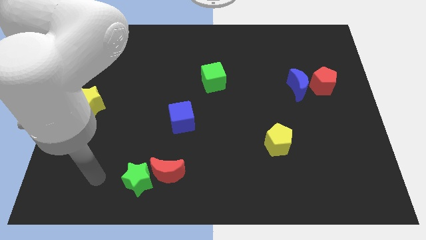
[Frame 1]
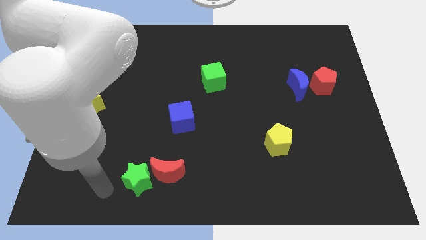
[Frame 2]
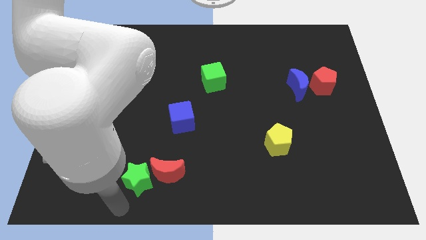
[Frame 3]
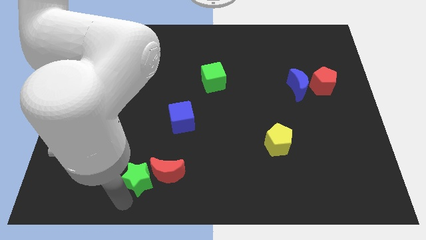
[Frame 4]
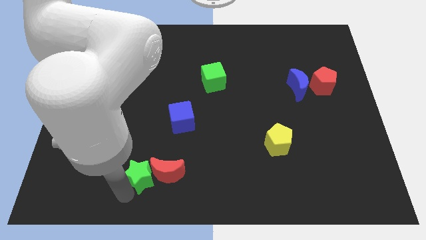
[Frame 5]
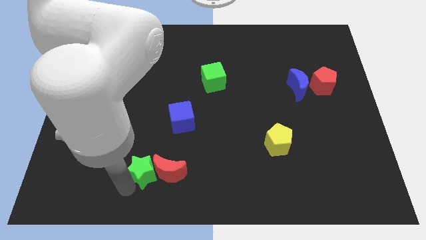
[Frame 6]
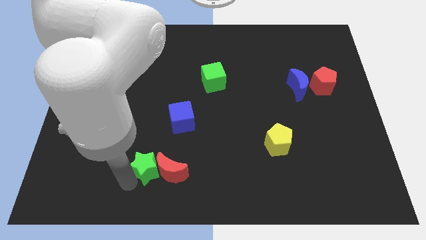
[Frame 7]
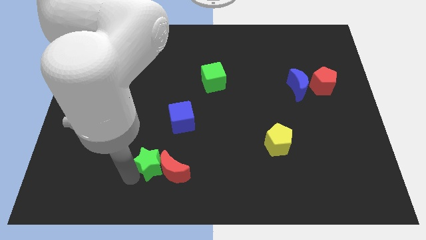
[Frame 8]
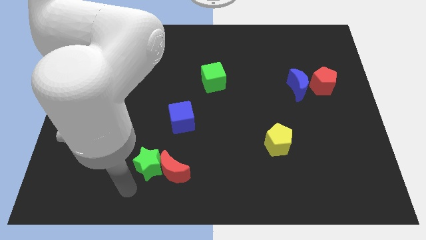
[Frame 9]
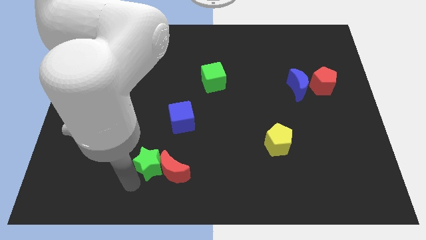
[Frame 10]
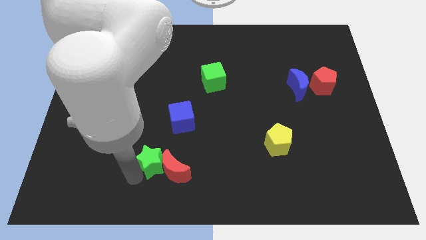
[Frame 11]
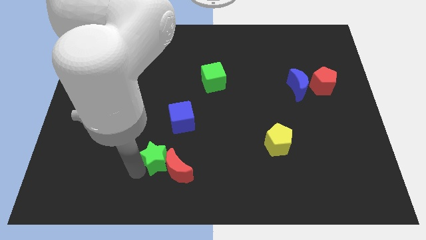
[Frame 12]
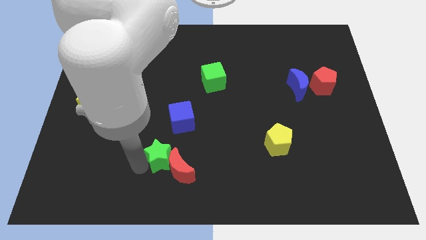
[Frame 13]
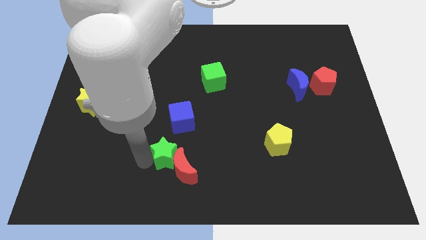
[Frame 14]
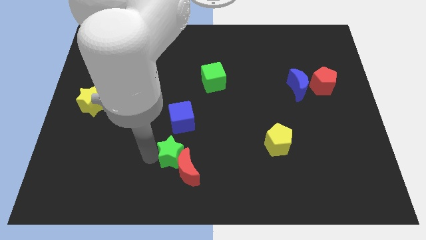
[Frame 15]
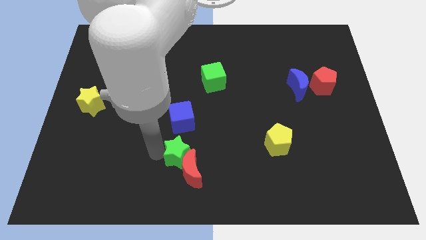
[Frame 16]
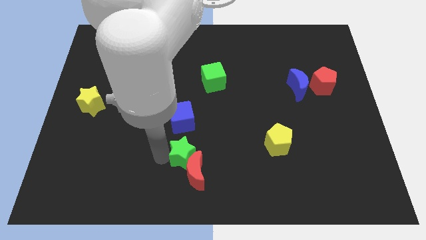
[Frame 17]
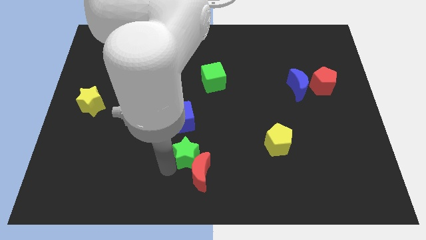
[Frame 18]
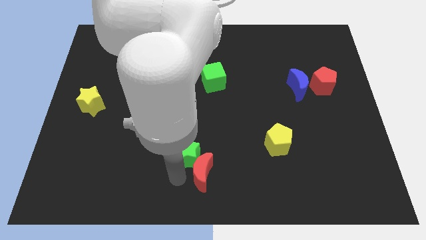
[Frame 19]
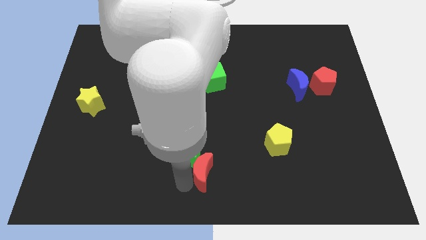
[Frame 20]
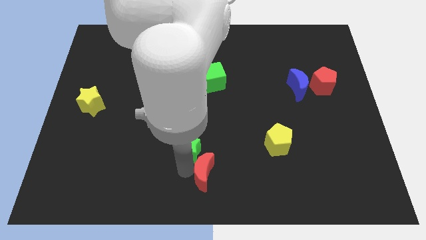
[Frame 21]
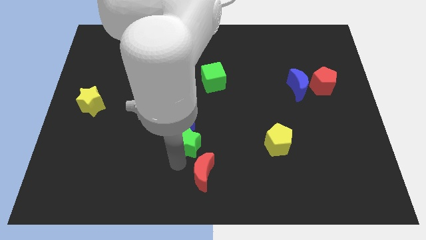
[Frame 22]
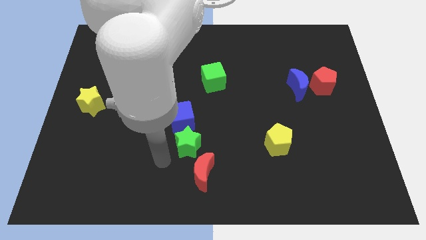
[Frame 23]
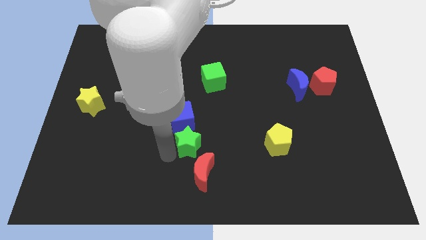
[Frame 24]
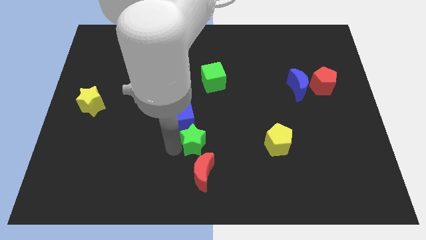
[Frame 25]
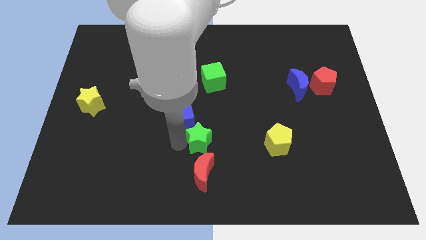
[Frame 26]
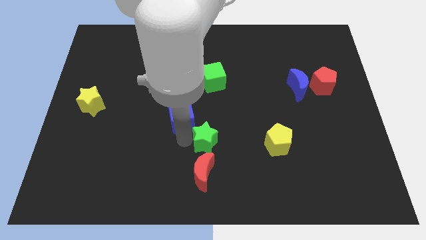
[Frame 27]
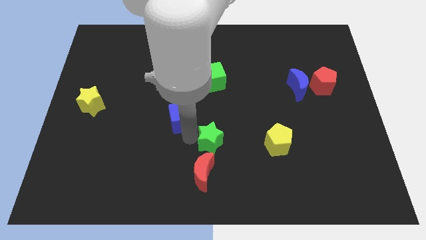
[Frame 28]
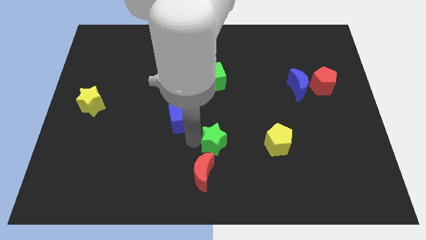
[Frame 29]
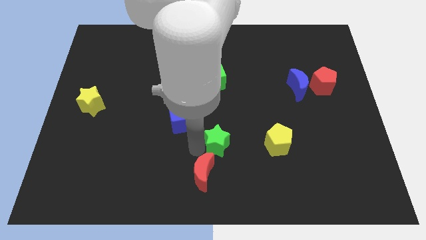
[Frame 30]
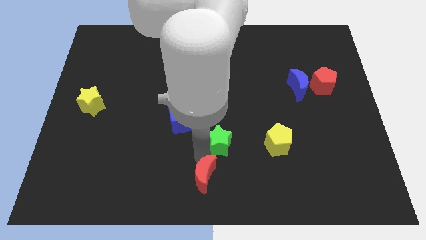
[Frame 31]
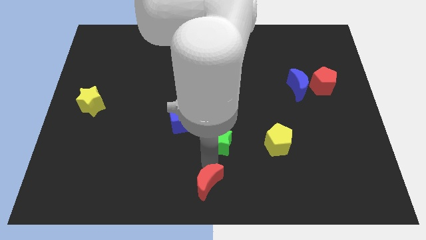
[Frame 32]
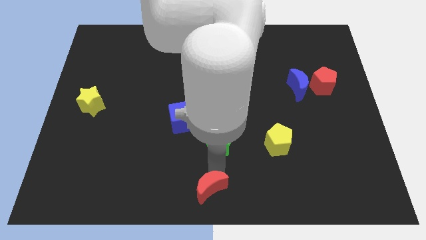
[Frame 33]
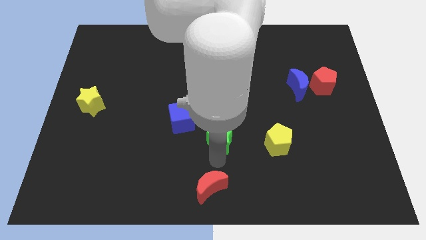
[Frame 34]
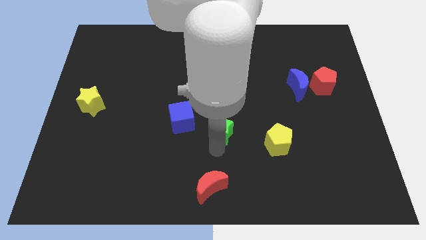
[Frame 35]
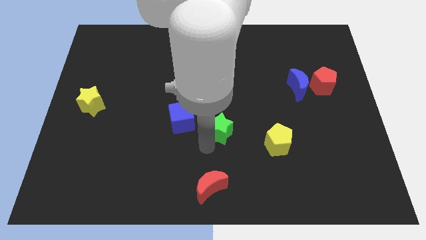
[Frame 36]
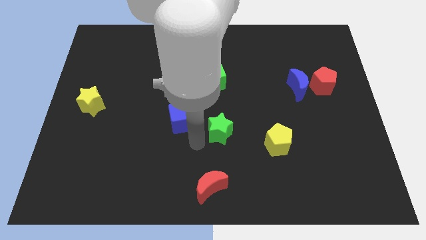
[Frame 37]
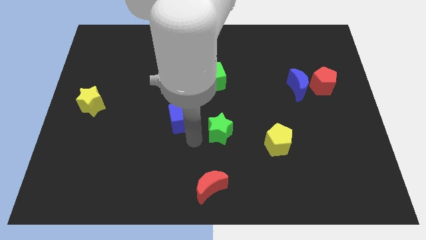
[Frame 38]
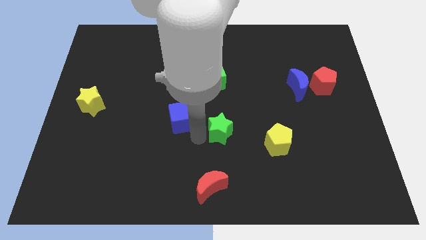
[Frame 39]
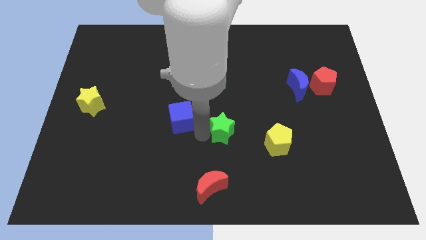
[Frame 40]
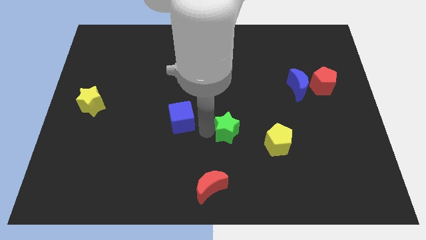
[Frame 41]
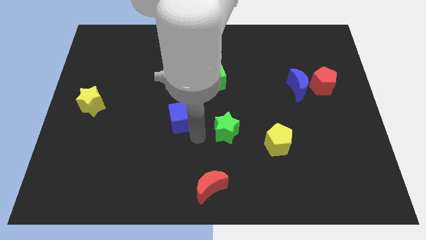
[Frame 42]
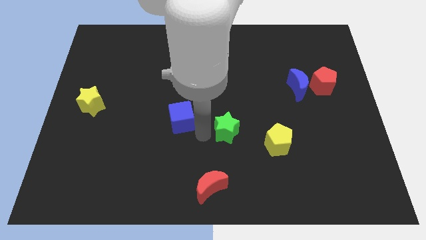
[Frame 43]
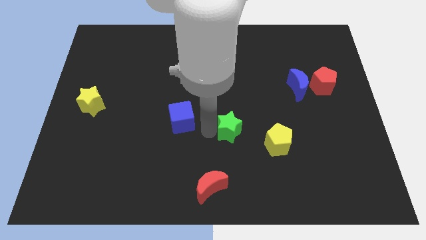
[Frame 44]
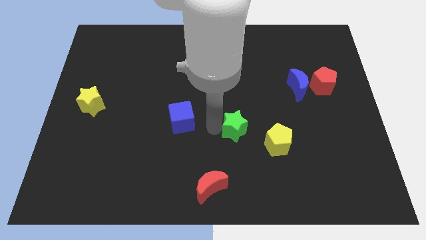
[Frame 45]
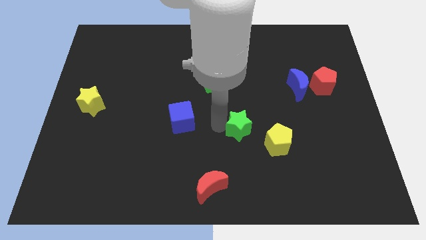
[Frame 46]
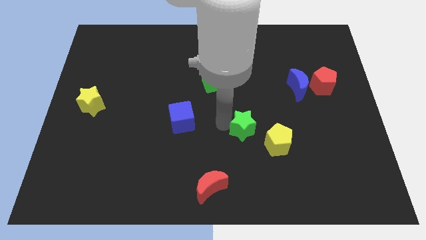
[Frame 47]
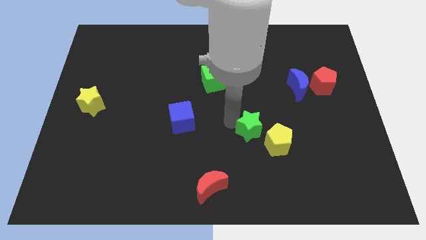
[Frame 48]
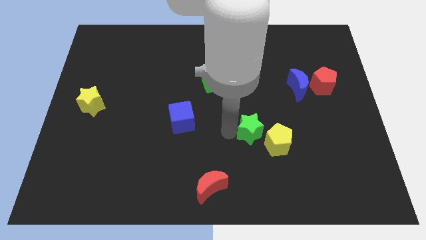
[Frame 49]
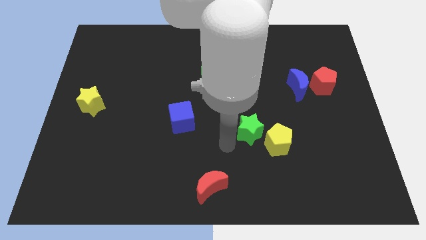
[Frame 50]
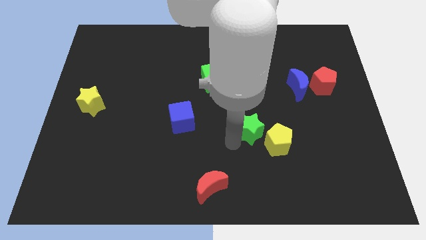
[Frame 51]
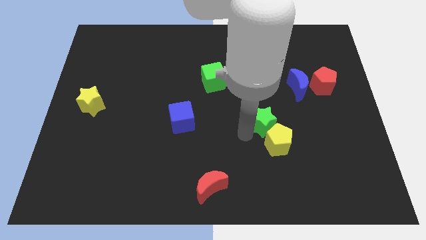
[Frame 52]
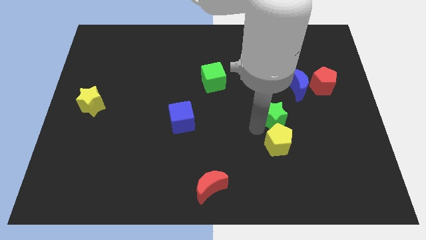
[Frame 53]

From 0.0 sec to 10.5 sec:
put the green star diagonally down and to the left of the blue moon

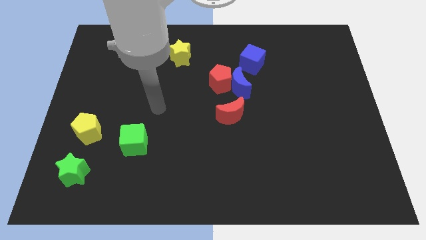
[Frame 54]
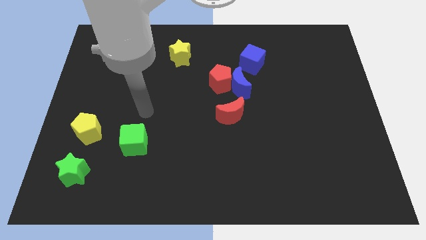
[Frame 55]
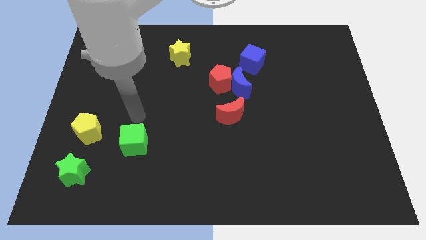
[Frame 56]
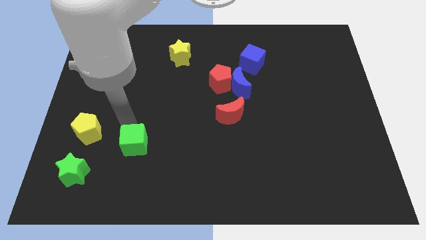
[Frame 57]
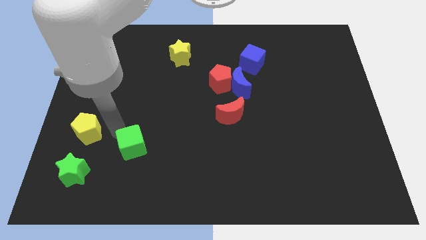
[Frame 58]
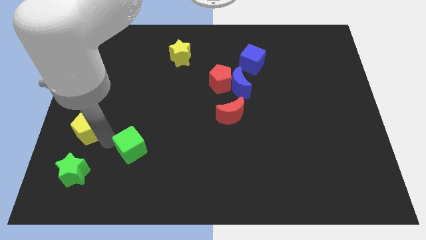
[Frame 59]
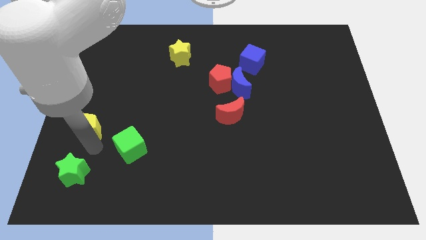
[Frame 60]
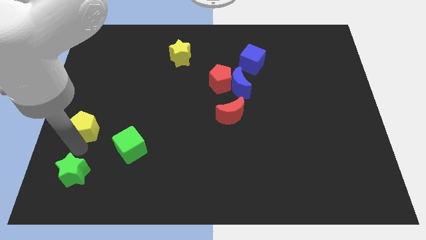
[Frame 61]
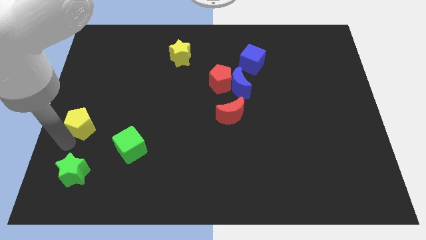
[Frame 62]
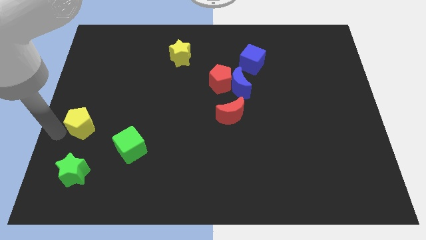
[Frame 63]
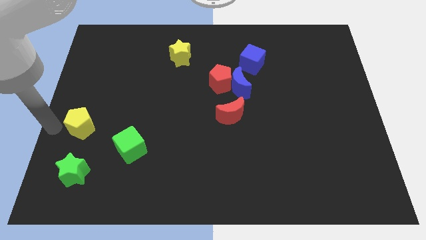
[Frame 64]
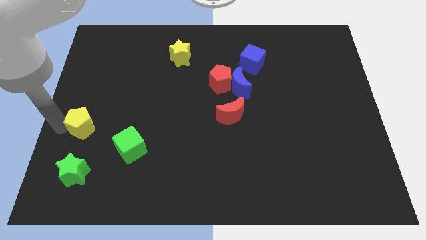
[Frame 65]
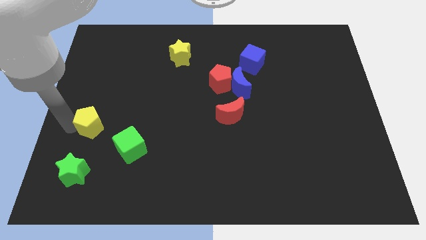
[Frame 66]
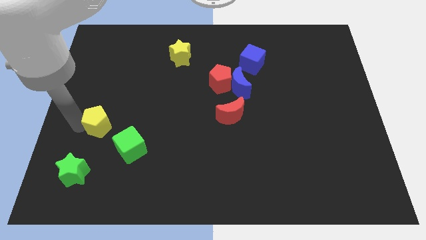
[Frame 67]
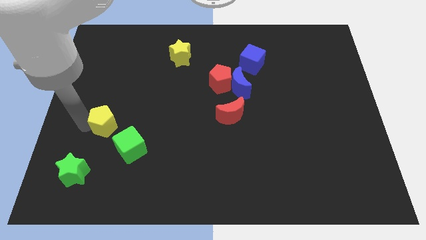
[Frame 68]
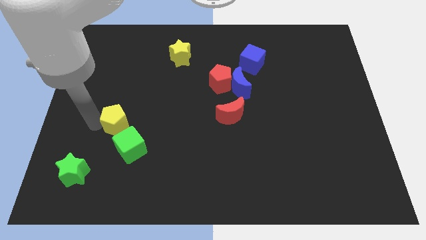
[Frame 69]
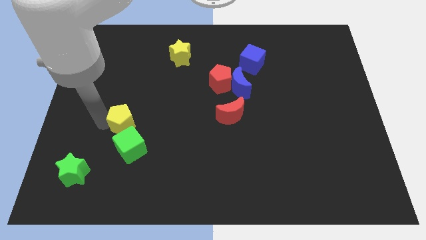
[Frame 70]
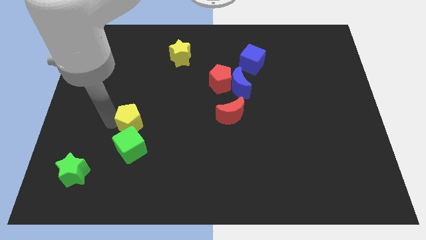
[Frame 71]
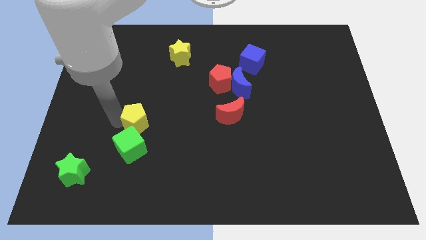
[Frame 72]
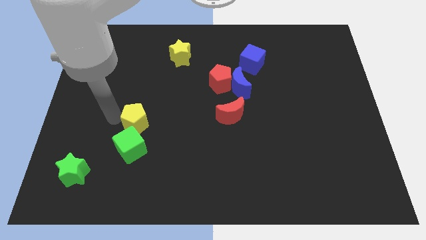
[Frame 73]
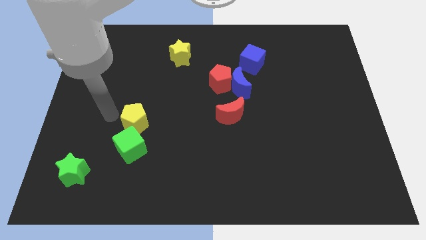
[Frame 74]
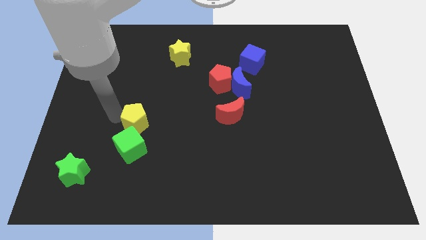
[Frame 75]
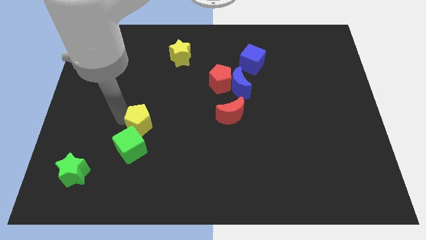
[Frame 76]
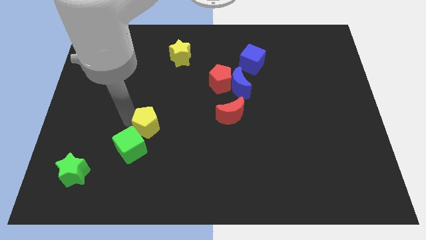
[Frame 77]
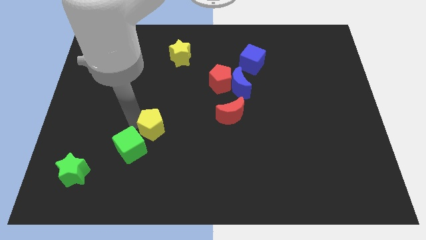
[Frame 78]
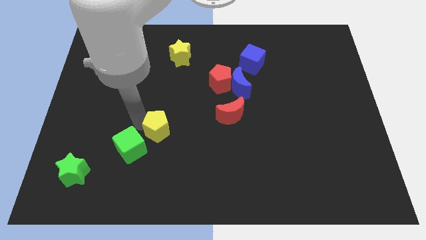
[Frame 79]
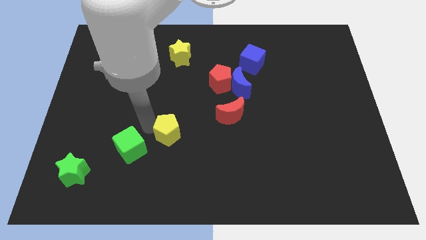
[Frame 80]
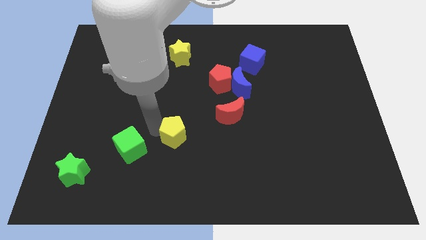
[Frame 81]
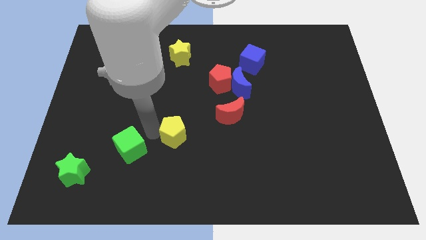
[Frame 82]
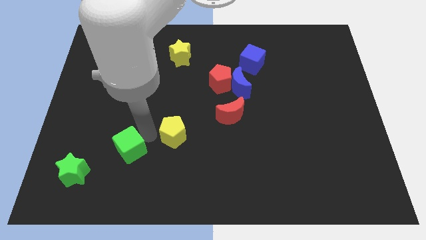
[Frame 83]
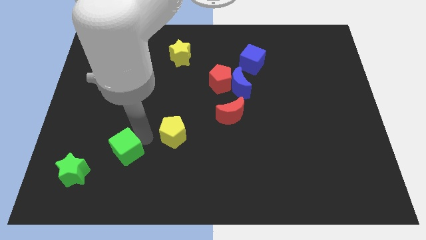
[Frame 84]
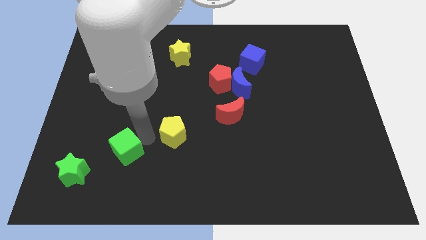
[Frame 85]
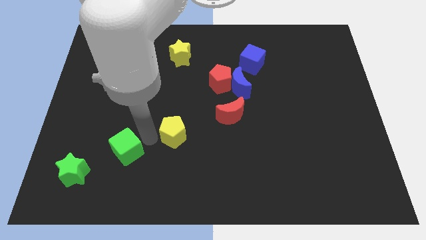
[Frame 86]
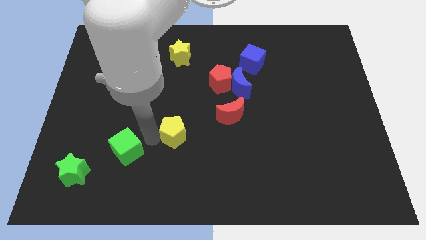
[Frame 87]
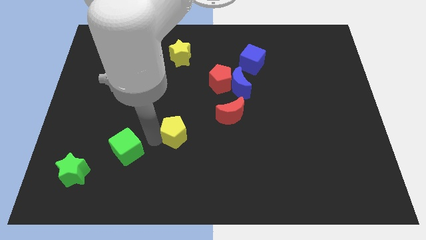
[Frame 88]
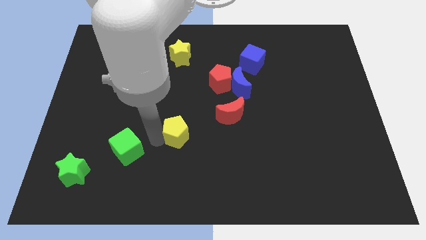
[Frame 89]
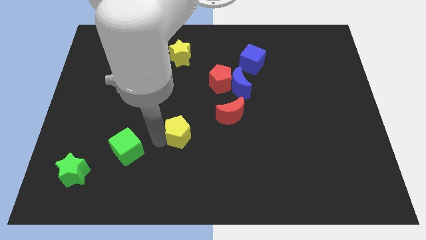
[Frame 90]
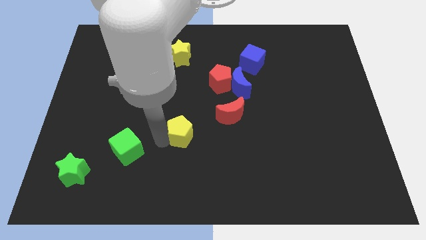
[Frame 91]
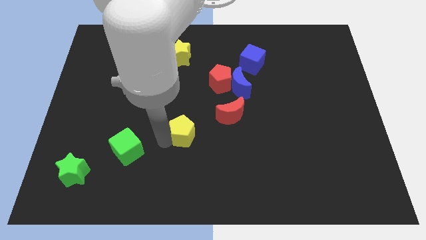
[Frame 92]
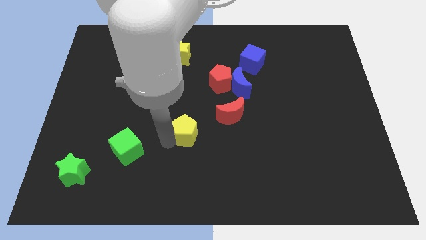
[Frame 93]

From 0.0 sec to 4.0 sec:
push the yellow pentagon to the bottom left of the red moon
